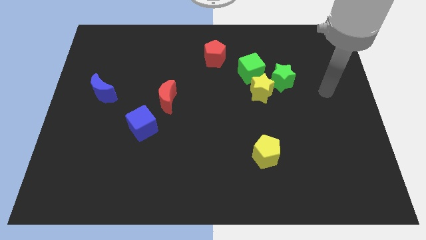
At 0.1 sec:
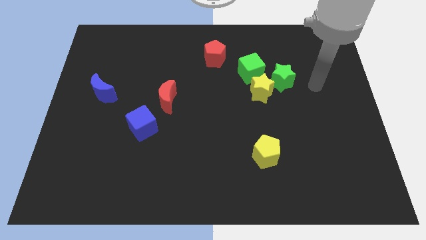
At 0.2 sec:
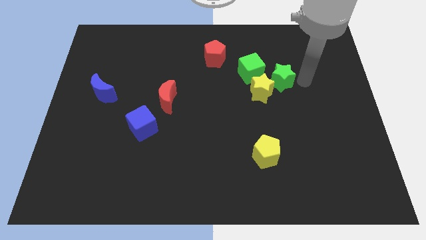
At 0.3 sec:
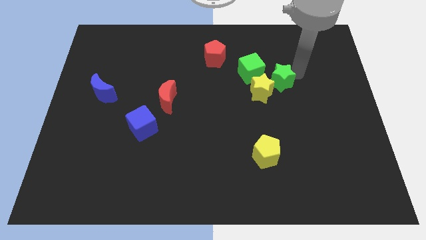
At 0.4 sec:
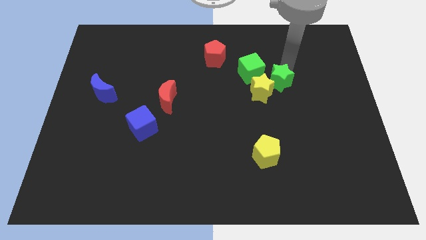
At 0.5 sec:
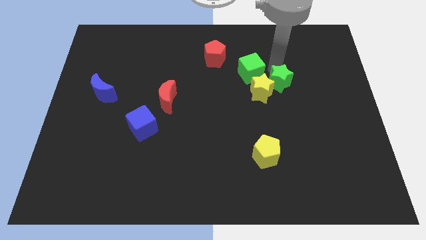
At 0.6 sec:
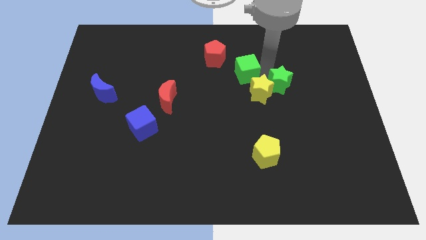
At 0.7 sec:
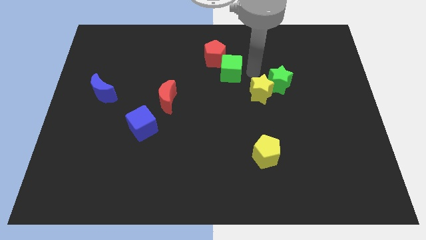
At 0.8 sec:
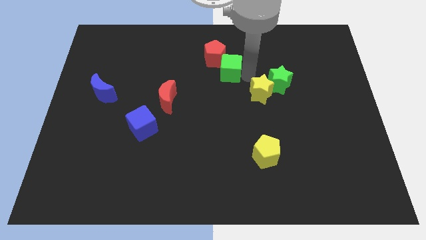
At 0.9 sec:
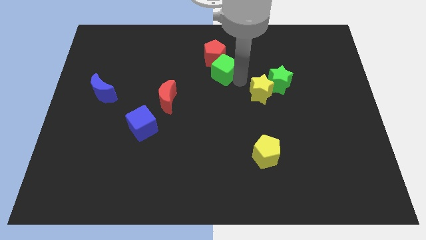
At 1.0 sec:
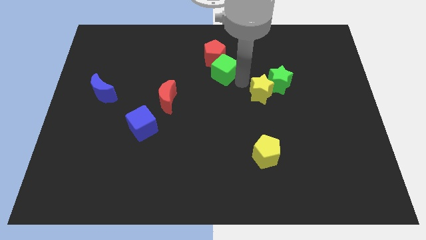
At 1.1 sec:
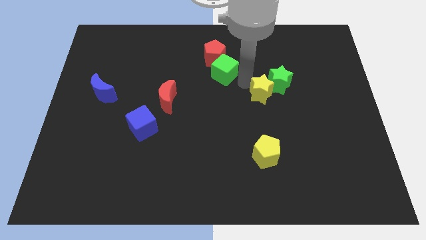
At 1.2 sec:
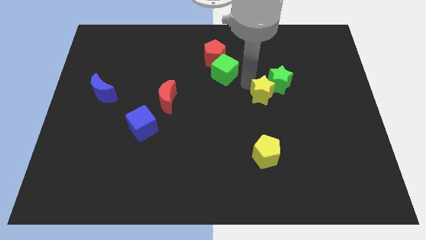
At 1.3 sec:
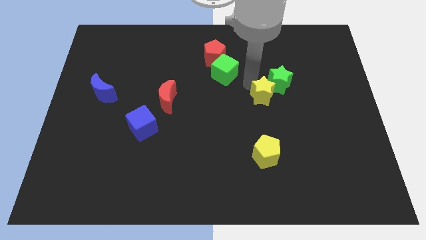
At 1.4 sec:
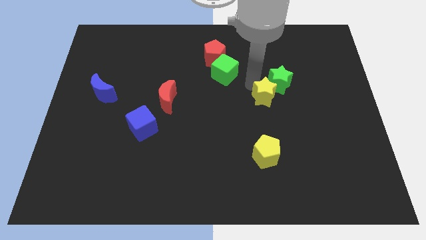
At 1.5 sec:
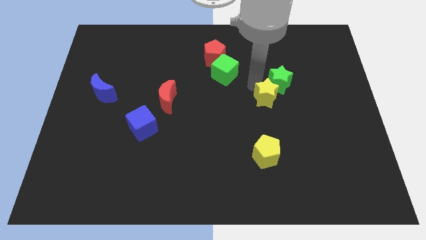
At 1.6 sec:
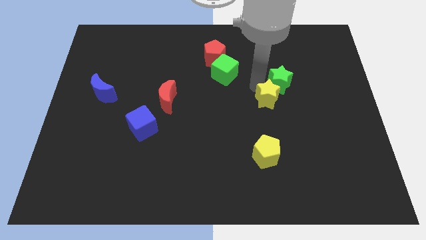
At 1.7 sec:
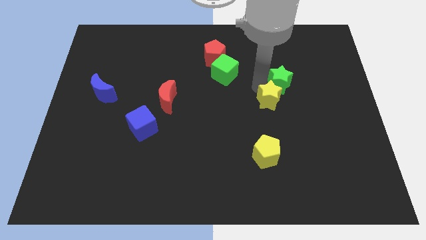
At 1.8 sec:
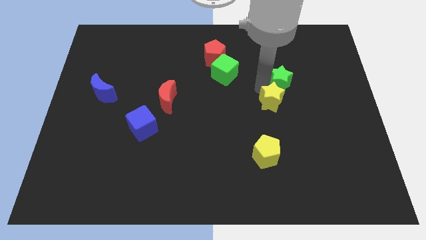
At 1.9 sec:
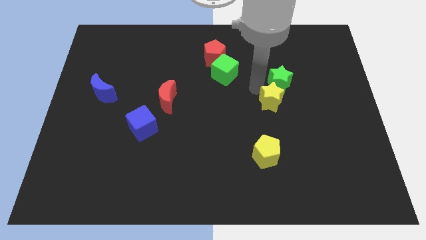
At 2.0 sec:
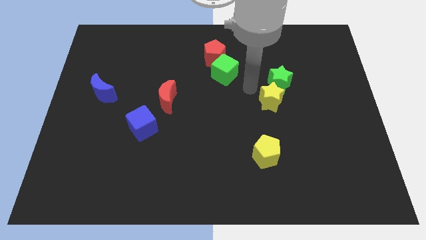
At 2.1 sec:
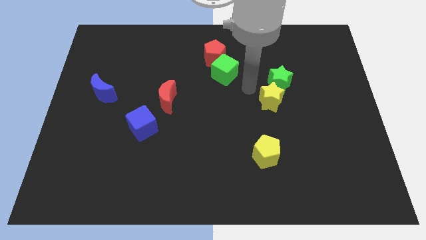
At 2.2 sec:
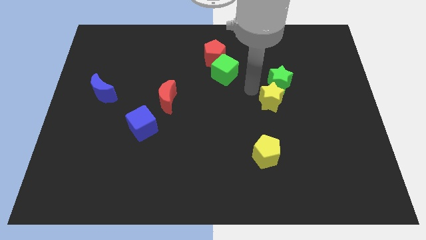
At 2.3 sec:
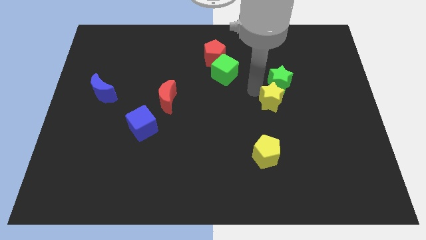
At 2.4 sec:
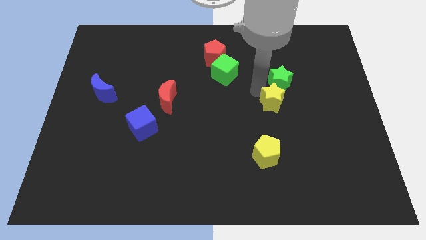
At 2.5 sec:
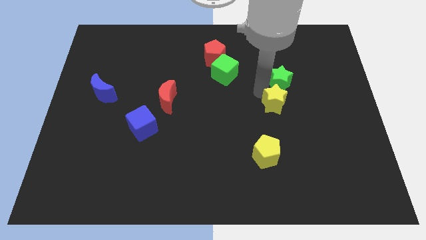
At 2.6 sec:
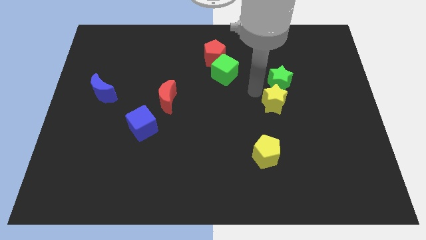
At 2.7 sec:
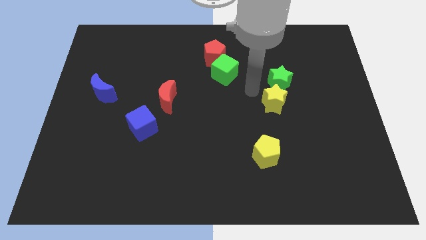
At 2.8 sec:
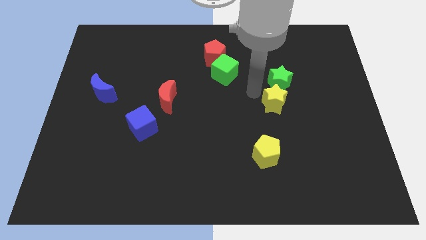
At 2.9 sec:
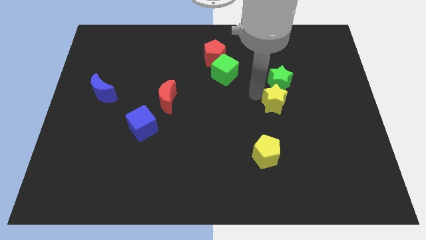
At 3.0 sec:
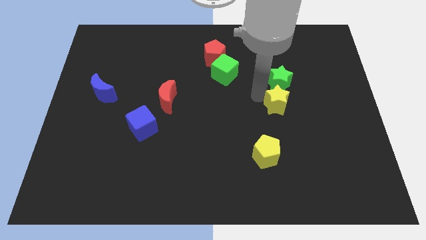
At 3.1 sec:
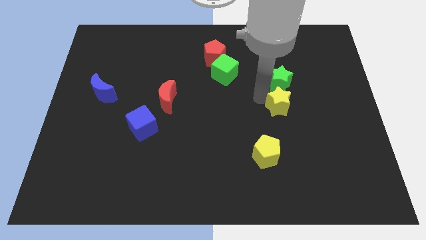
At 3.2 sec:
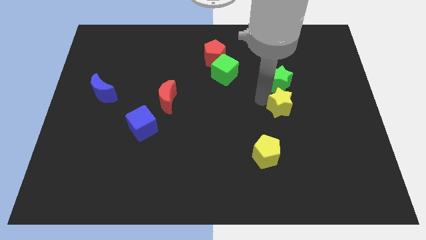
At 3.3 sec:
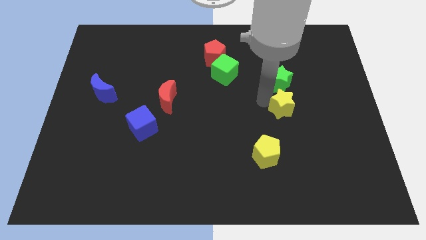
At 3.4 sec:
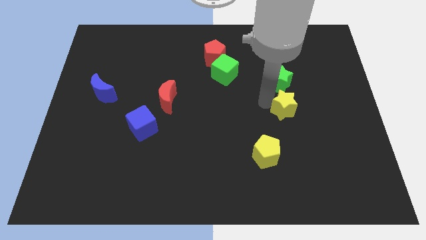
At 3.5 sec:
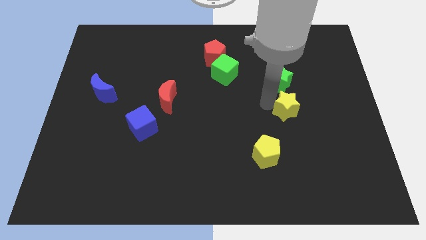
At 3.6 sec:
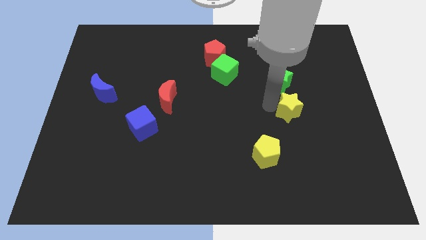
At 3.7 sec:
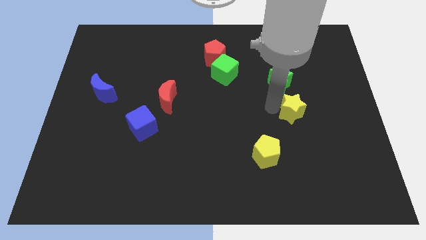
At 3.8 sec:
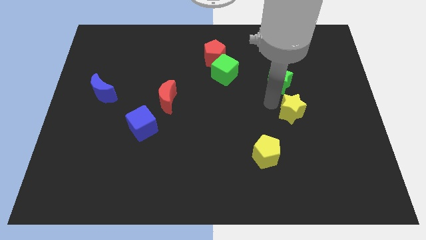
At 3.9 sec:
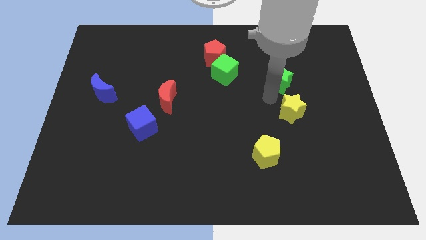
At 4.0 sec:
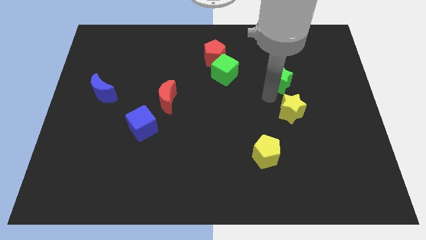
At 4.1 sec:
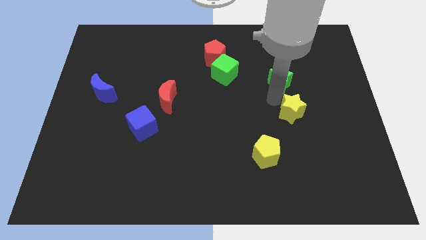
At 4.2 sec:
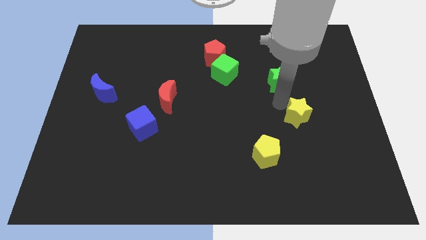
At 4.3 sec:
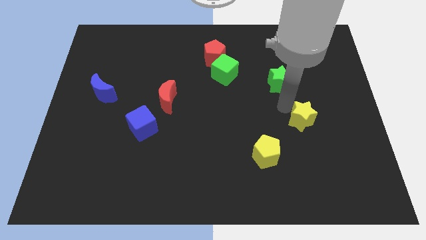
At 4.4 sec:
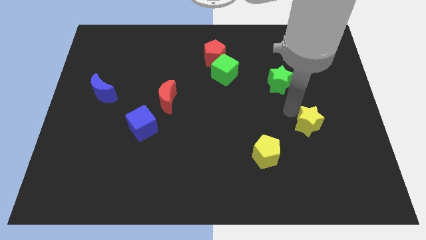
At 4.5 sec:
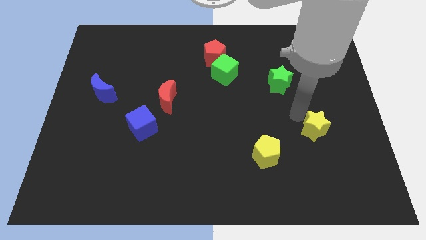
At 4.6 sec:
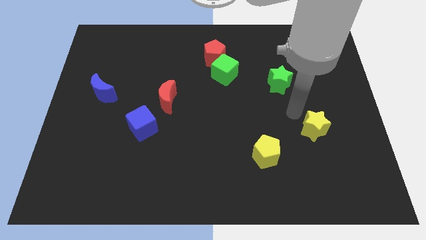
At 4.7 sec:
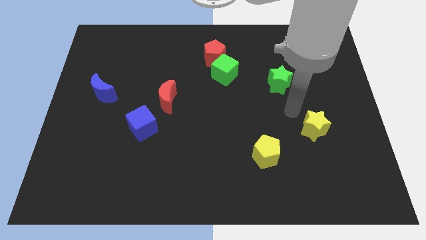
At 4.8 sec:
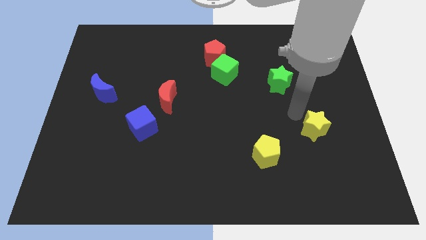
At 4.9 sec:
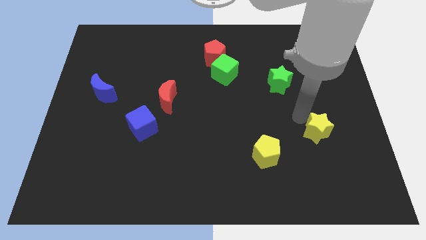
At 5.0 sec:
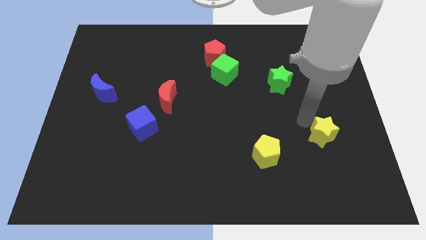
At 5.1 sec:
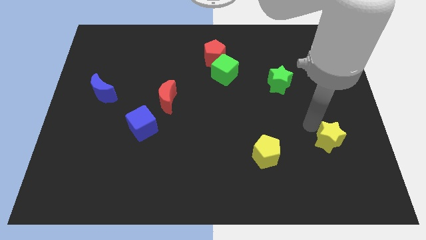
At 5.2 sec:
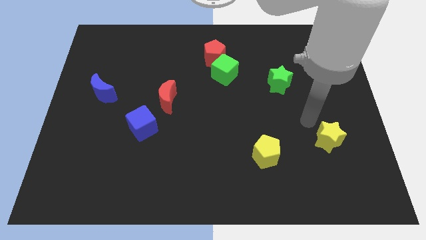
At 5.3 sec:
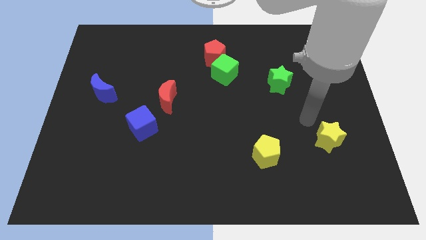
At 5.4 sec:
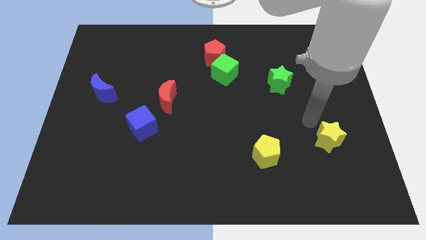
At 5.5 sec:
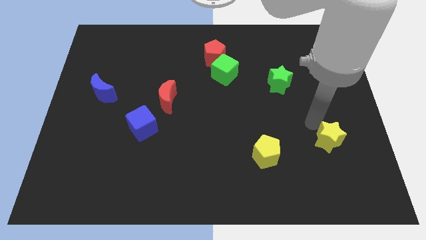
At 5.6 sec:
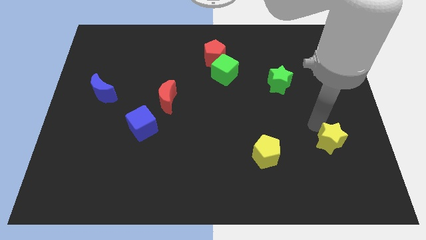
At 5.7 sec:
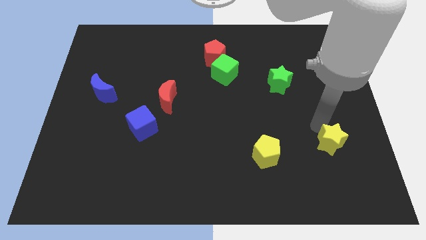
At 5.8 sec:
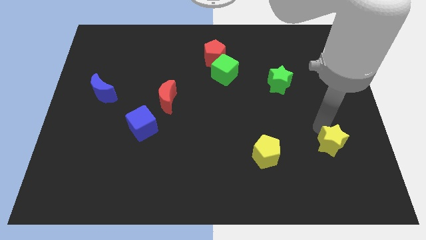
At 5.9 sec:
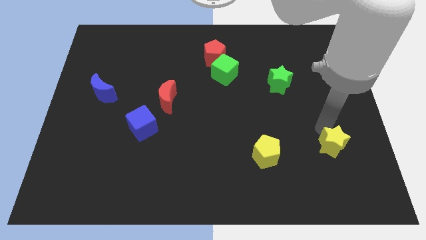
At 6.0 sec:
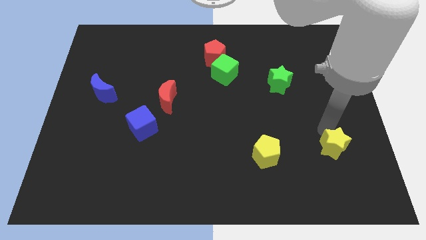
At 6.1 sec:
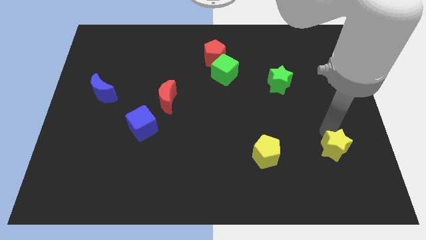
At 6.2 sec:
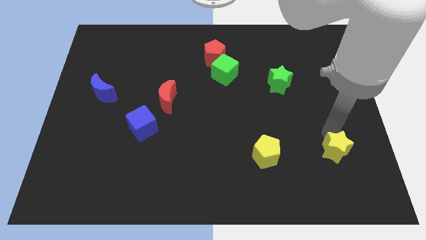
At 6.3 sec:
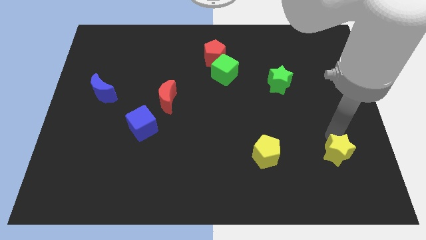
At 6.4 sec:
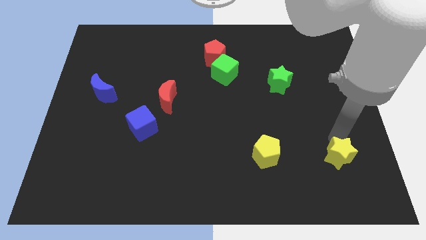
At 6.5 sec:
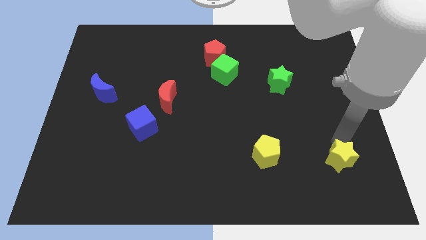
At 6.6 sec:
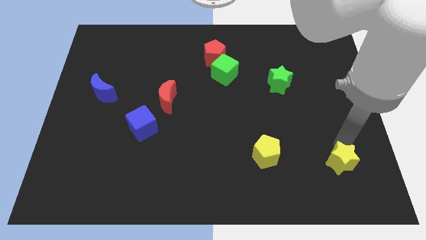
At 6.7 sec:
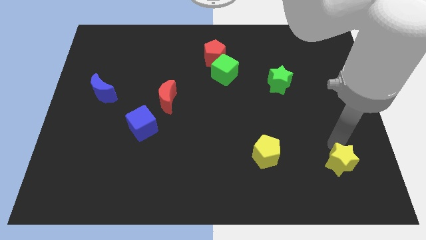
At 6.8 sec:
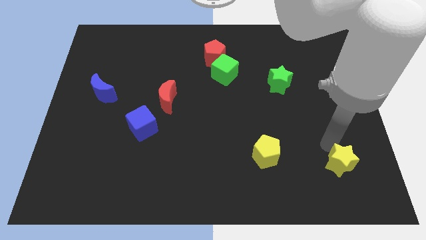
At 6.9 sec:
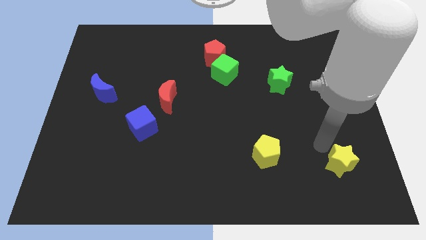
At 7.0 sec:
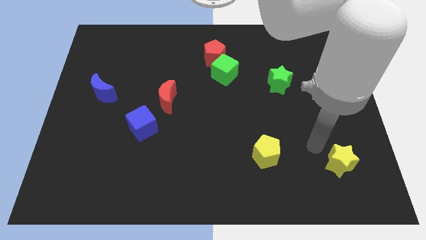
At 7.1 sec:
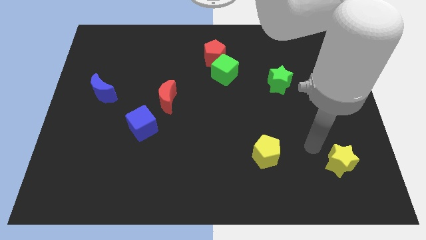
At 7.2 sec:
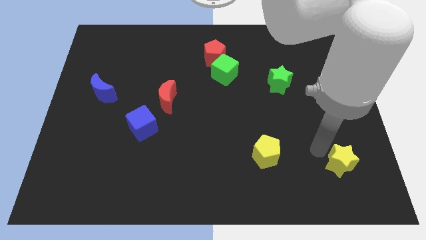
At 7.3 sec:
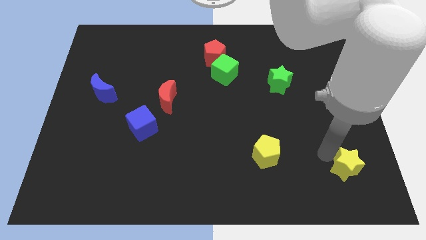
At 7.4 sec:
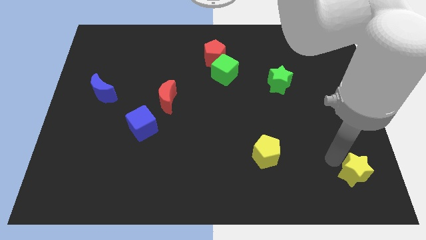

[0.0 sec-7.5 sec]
slide the yellow star to the bottom right of the board
